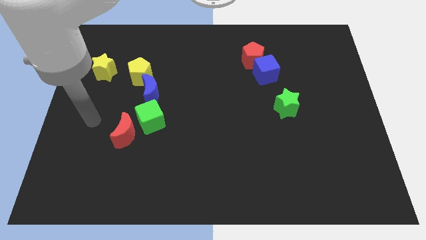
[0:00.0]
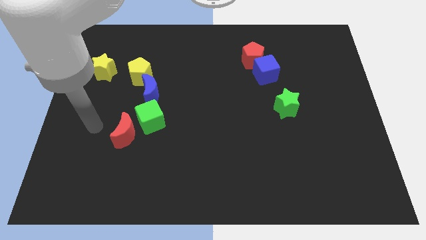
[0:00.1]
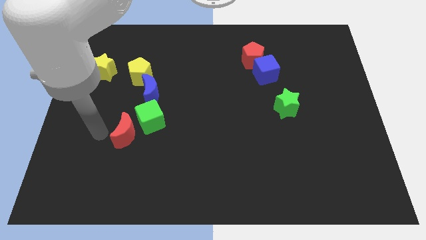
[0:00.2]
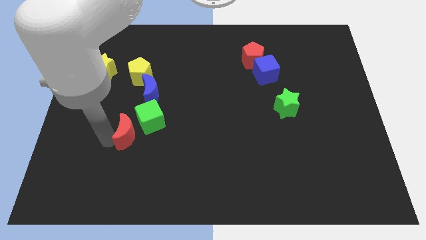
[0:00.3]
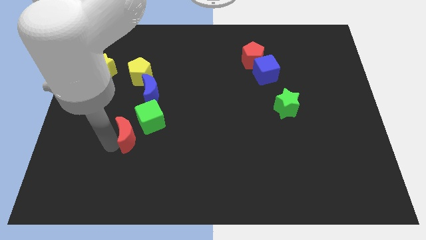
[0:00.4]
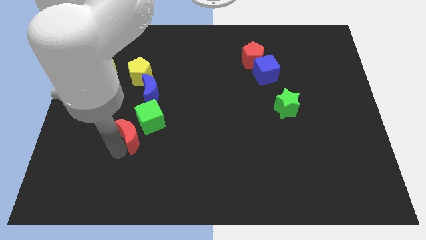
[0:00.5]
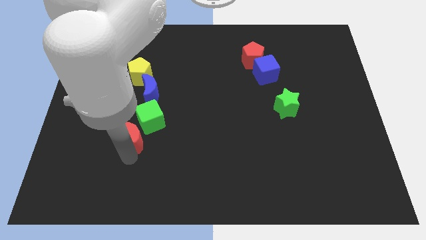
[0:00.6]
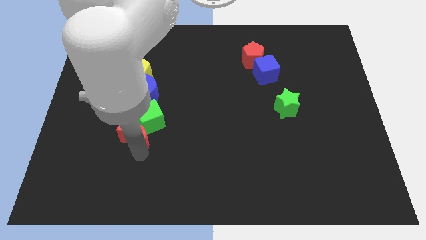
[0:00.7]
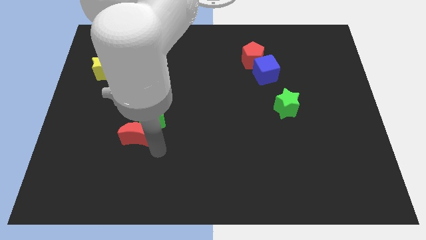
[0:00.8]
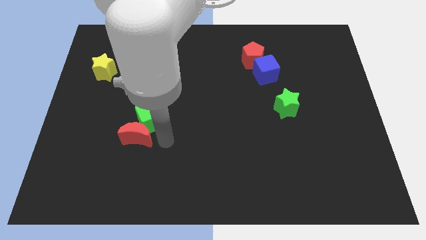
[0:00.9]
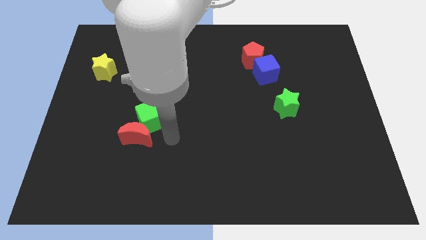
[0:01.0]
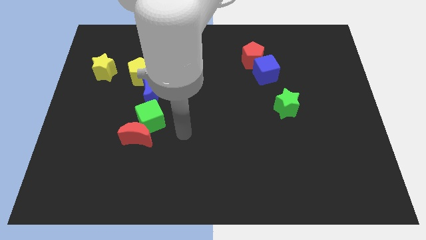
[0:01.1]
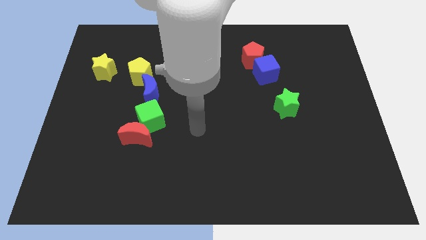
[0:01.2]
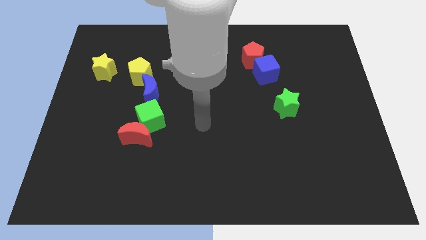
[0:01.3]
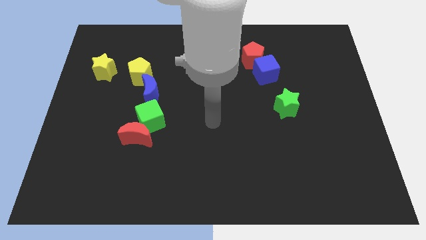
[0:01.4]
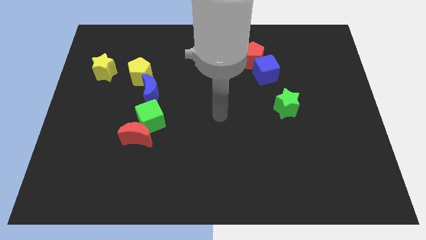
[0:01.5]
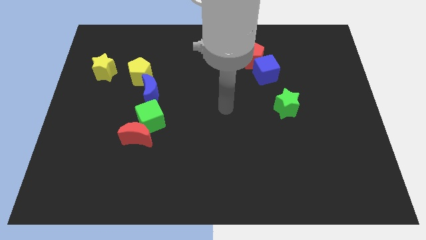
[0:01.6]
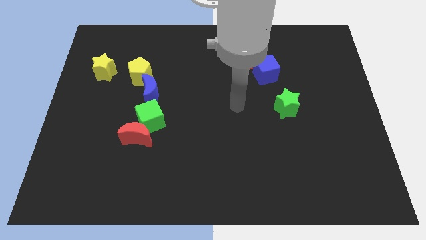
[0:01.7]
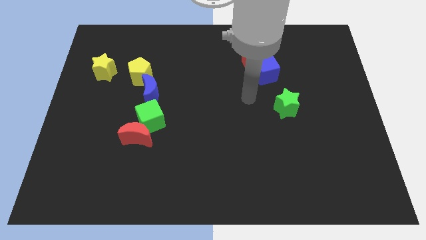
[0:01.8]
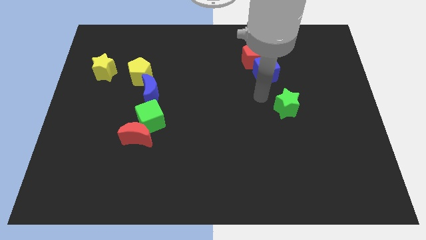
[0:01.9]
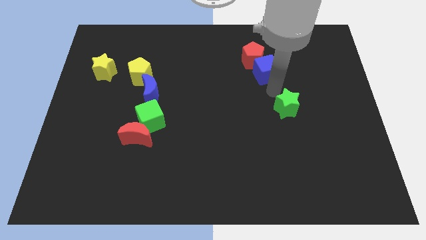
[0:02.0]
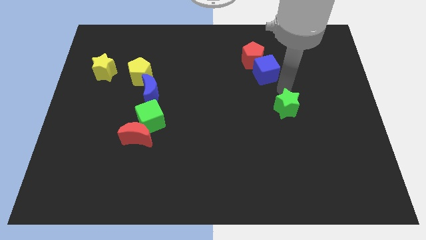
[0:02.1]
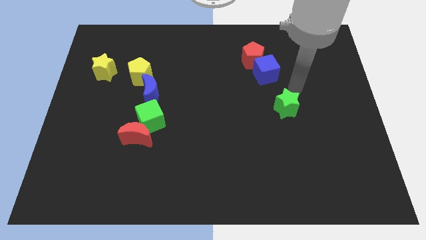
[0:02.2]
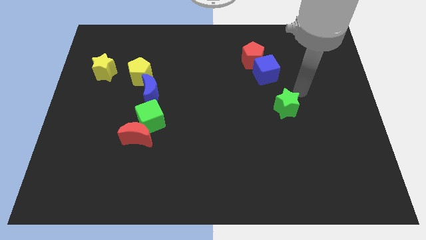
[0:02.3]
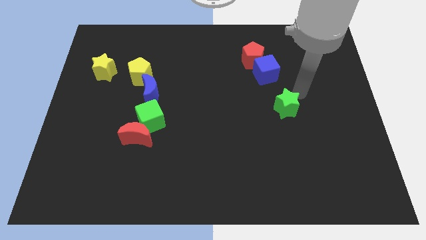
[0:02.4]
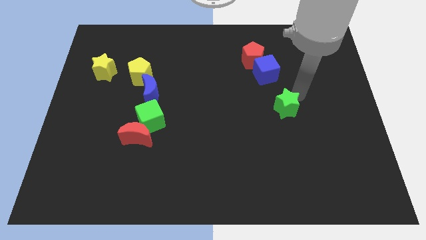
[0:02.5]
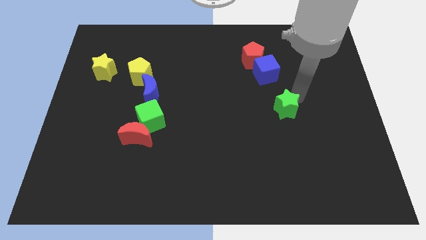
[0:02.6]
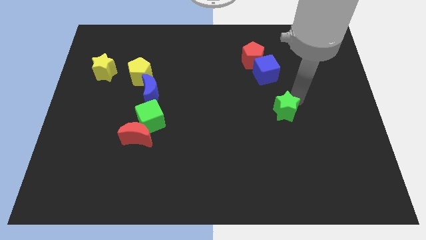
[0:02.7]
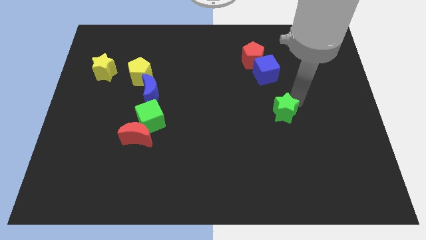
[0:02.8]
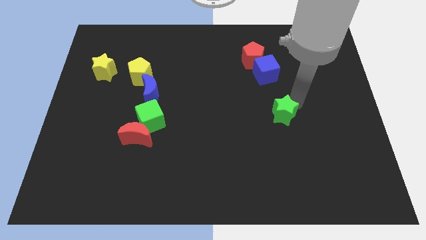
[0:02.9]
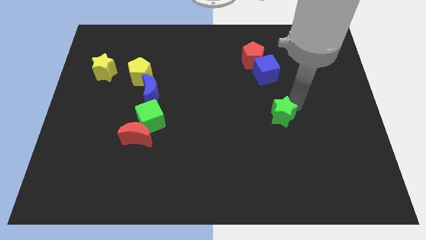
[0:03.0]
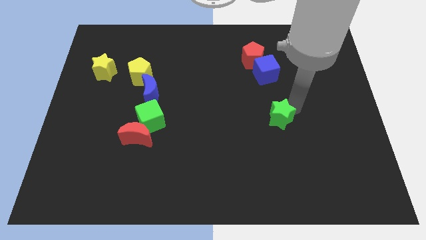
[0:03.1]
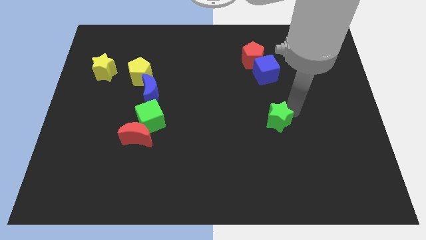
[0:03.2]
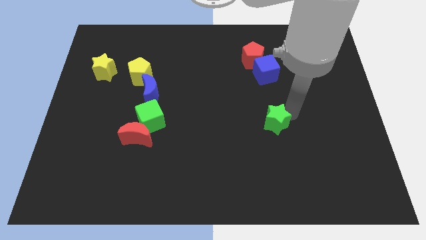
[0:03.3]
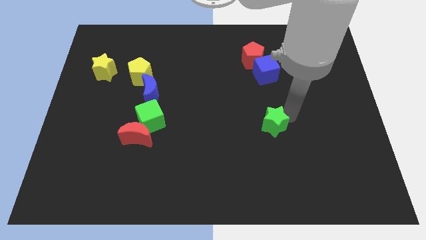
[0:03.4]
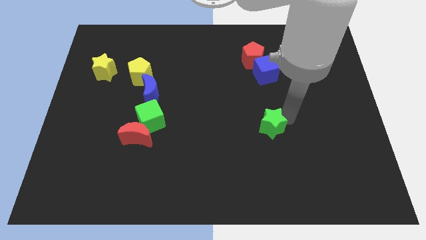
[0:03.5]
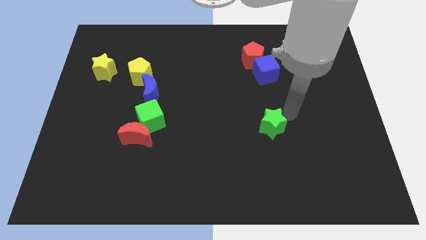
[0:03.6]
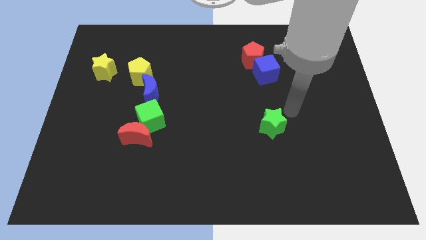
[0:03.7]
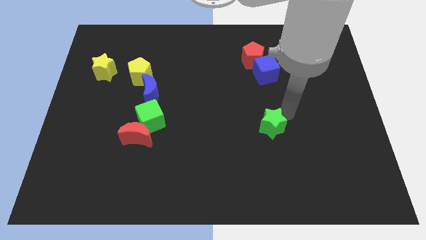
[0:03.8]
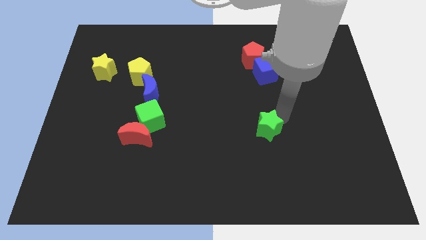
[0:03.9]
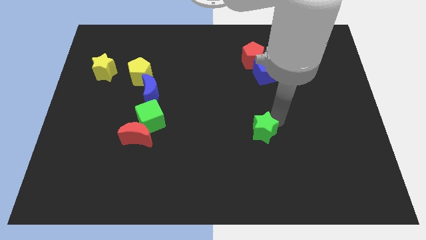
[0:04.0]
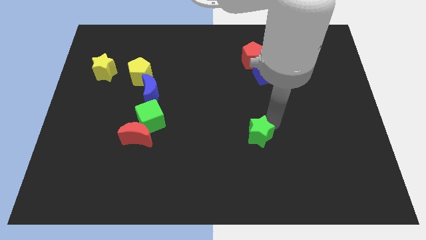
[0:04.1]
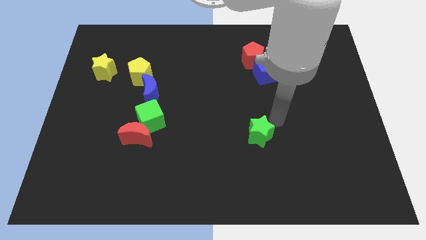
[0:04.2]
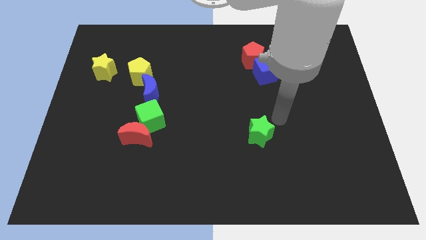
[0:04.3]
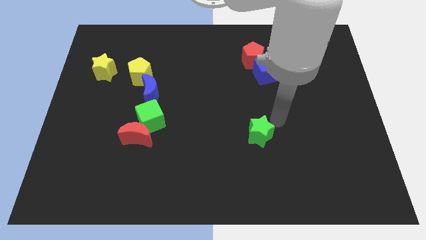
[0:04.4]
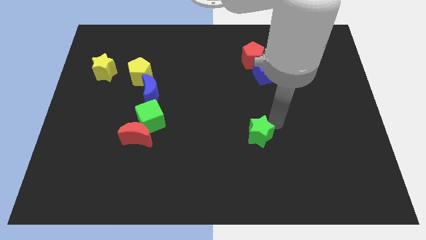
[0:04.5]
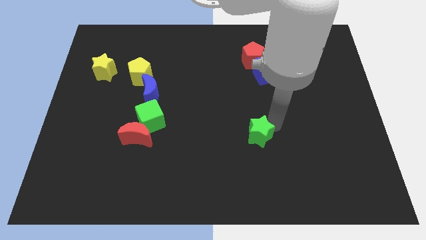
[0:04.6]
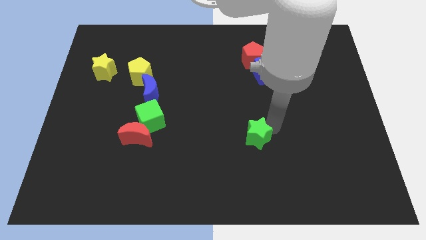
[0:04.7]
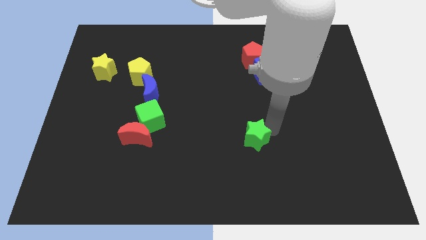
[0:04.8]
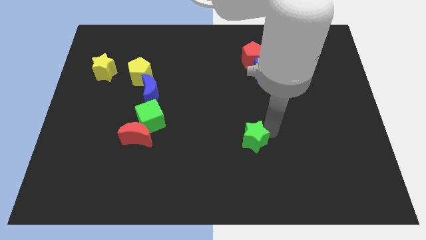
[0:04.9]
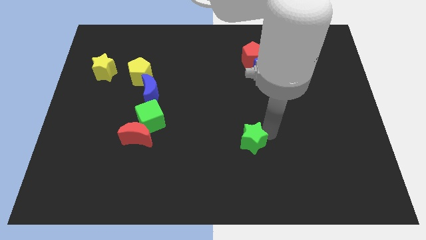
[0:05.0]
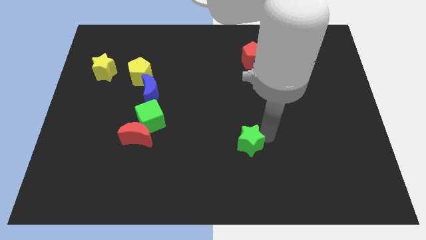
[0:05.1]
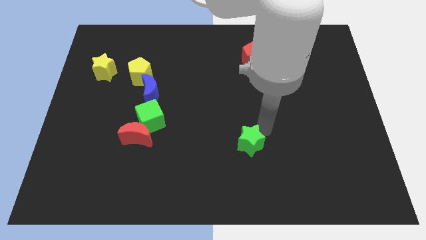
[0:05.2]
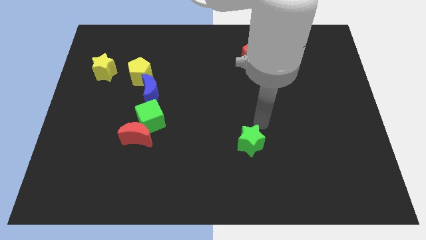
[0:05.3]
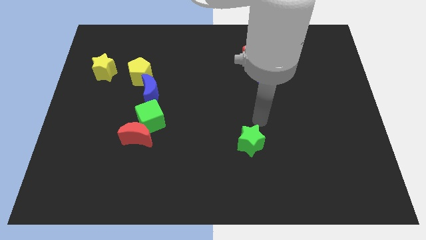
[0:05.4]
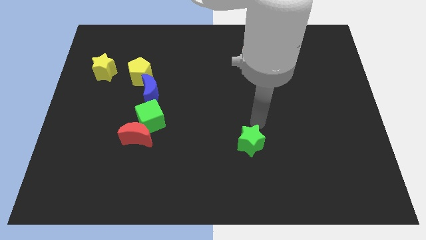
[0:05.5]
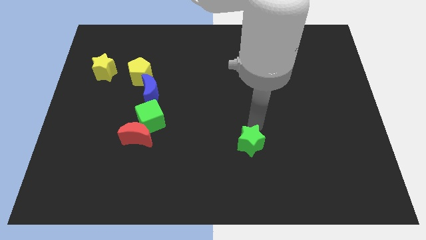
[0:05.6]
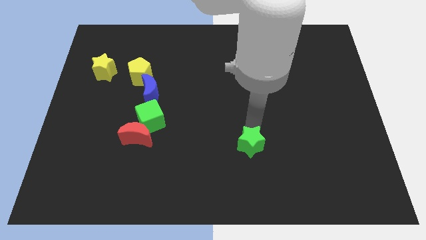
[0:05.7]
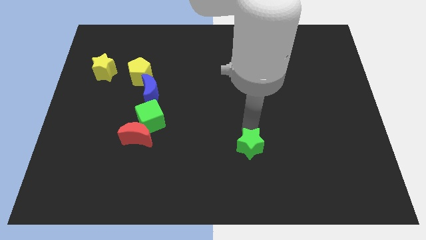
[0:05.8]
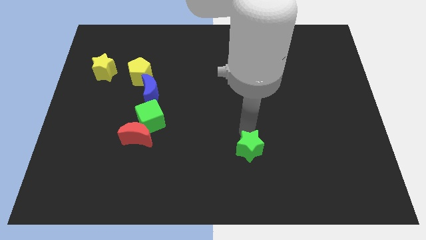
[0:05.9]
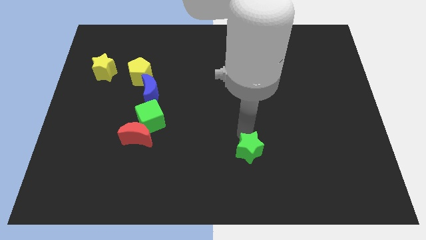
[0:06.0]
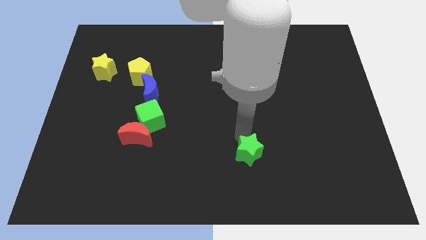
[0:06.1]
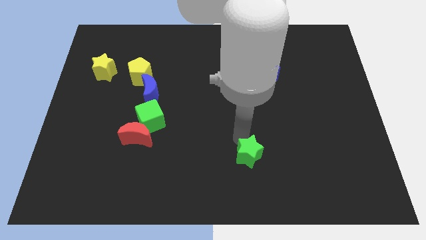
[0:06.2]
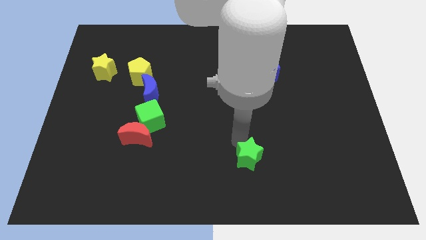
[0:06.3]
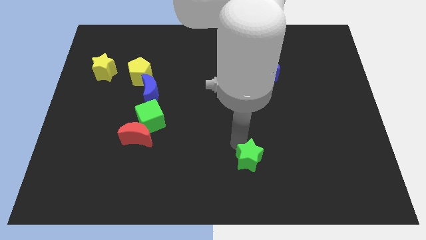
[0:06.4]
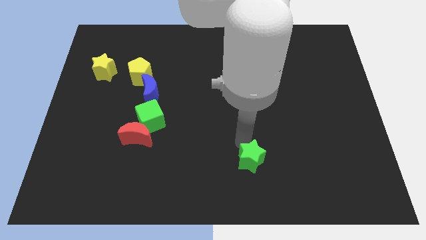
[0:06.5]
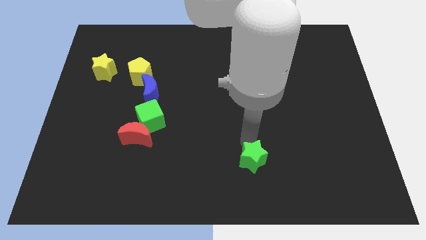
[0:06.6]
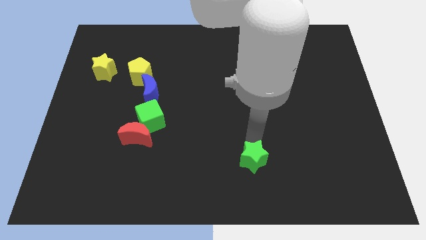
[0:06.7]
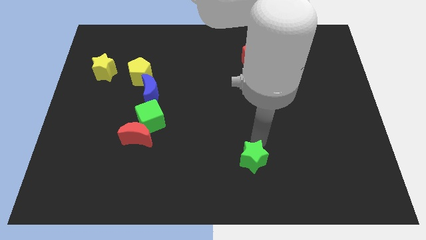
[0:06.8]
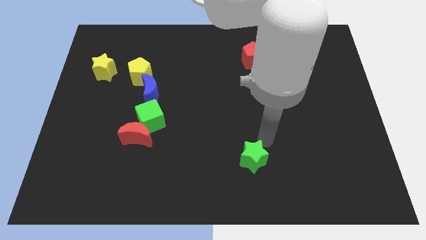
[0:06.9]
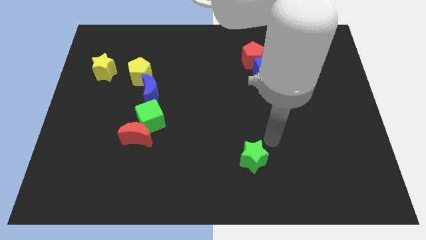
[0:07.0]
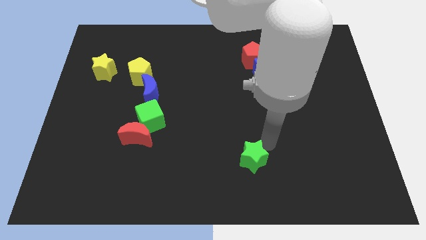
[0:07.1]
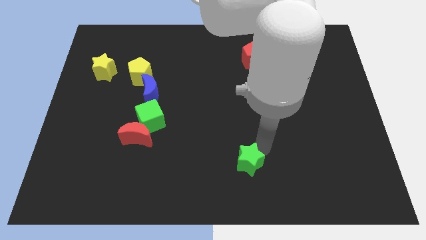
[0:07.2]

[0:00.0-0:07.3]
slide the green star to the bottom
